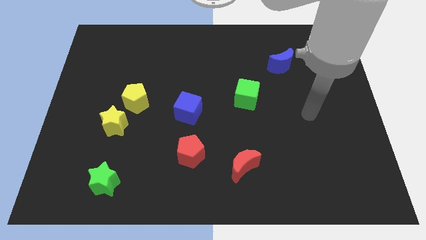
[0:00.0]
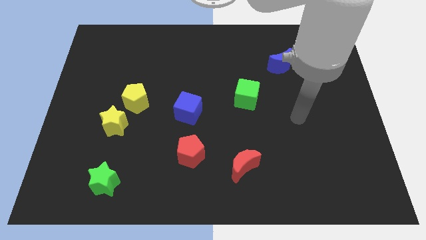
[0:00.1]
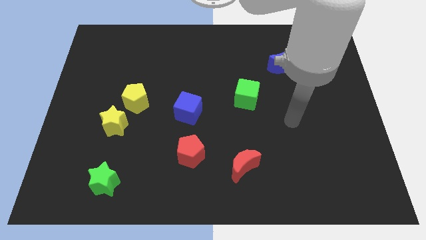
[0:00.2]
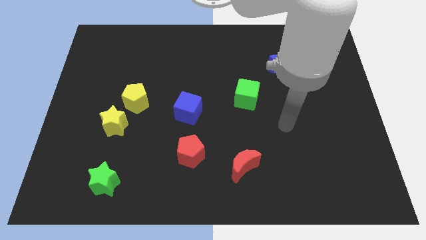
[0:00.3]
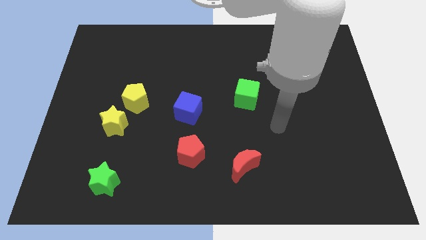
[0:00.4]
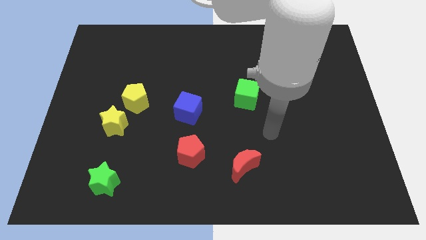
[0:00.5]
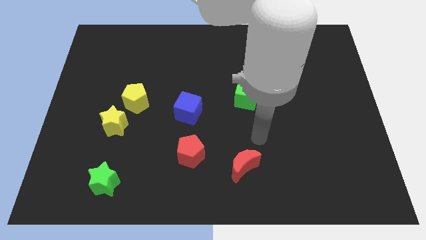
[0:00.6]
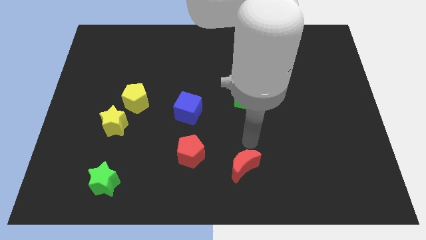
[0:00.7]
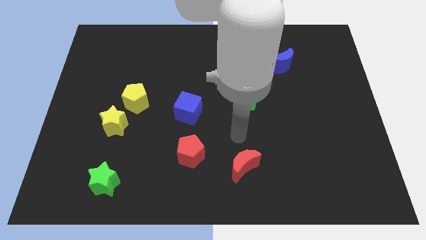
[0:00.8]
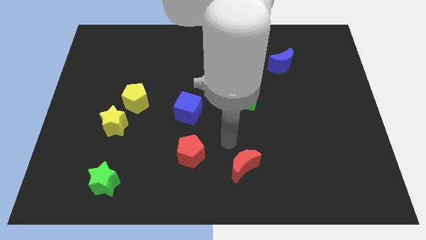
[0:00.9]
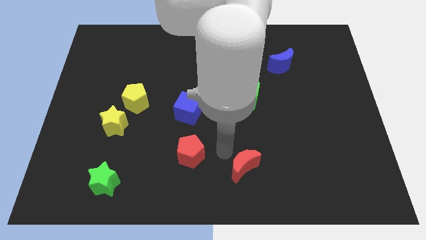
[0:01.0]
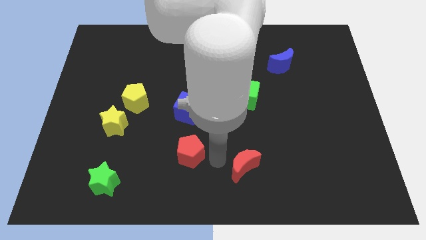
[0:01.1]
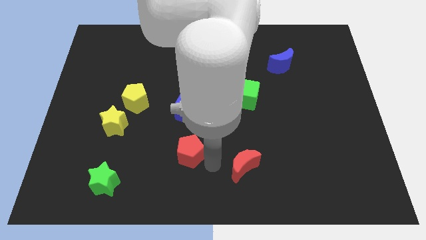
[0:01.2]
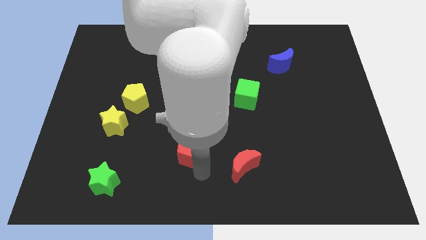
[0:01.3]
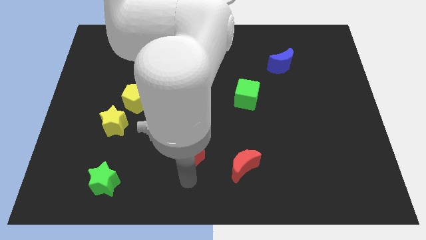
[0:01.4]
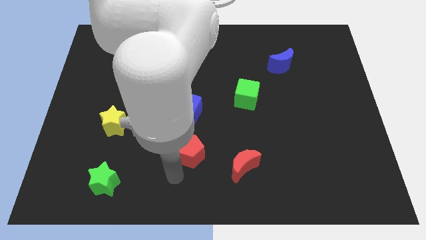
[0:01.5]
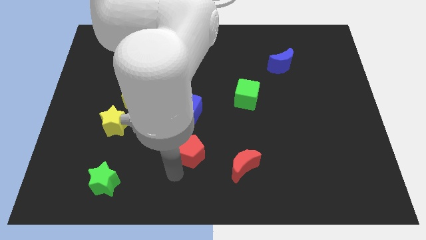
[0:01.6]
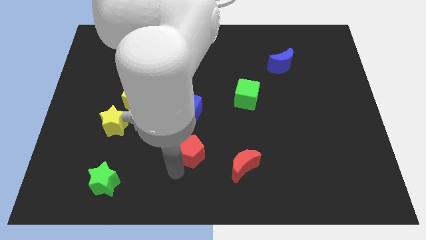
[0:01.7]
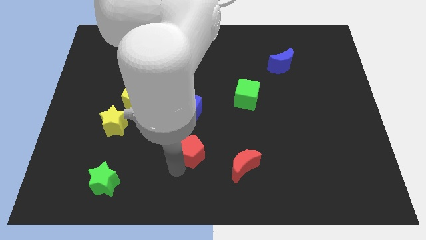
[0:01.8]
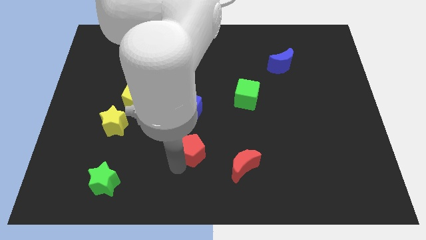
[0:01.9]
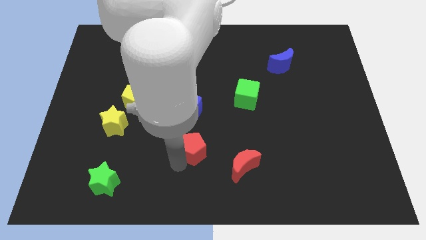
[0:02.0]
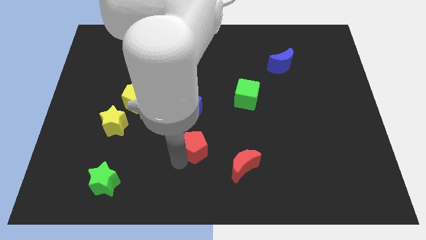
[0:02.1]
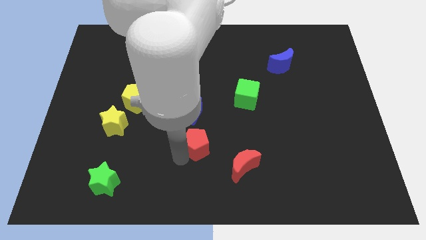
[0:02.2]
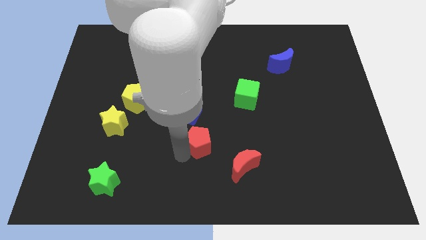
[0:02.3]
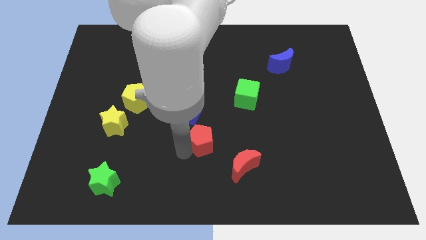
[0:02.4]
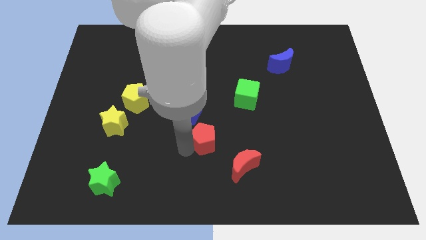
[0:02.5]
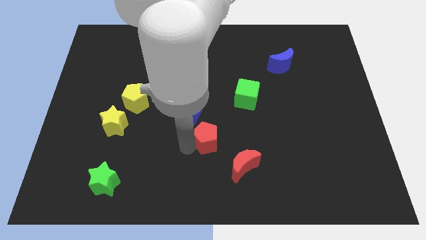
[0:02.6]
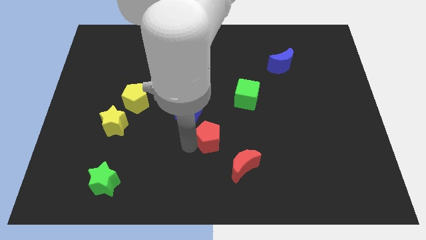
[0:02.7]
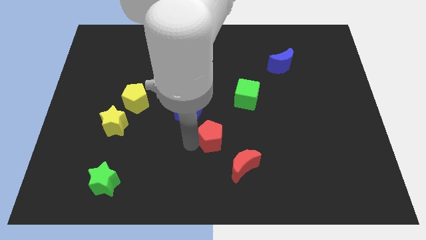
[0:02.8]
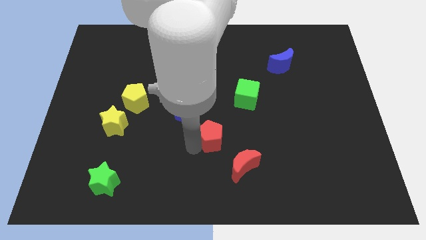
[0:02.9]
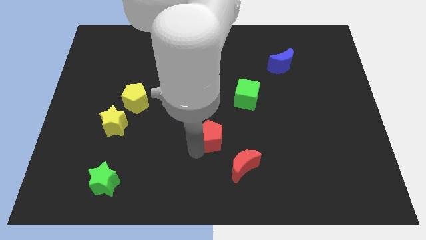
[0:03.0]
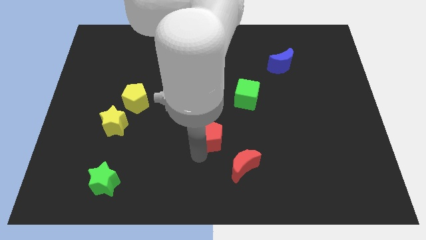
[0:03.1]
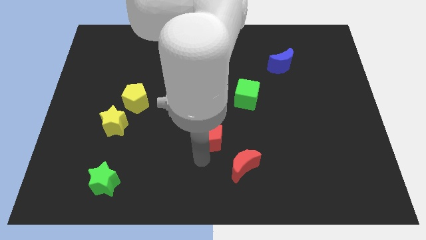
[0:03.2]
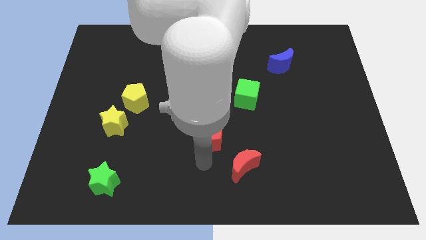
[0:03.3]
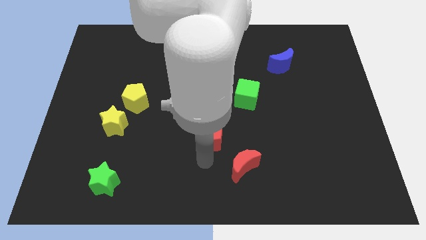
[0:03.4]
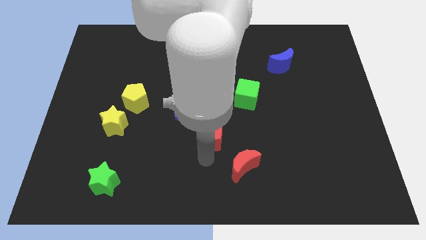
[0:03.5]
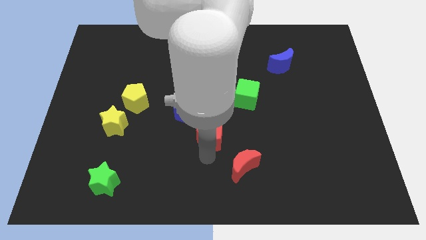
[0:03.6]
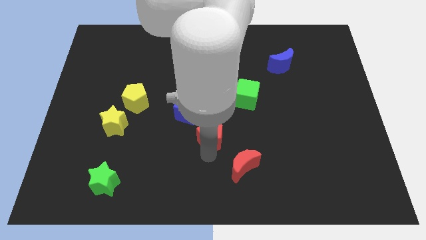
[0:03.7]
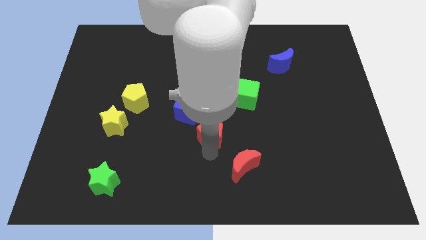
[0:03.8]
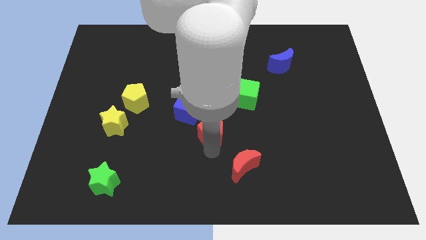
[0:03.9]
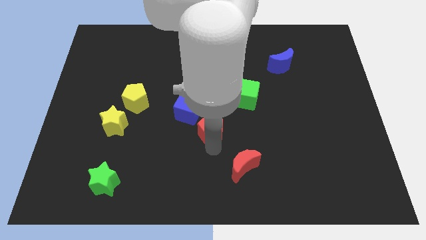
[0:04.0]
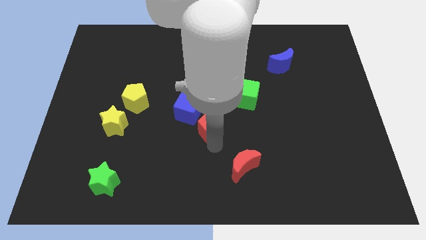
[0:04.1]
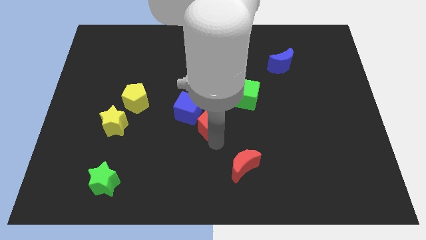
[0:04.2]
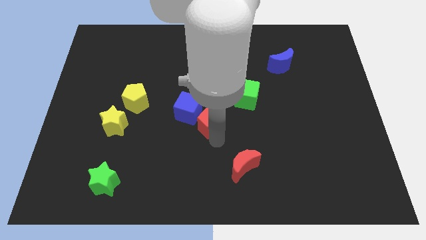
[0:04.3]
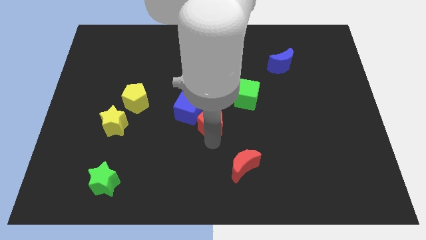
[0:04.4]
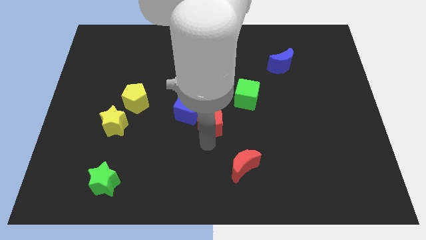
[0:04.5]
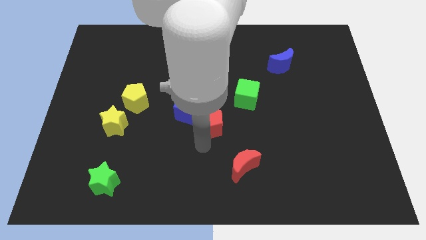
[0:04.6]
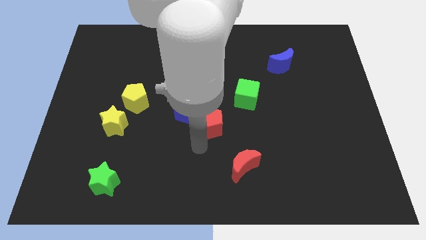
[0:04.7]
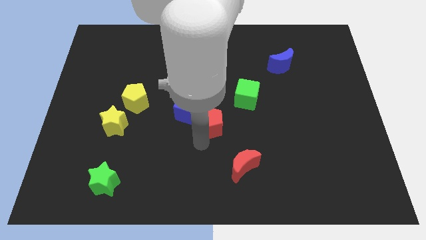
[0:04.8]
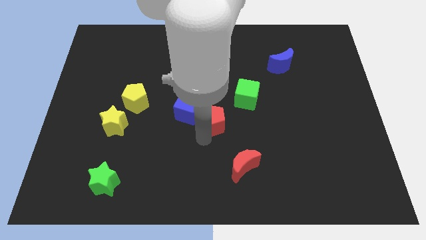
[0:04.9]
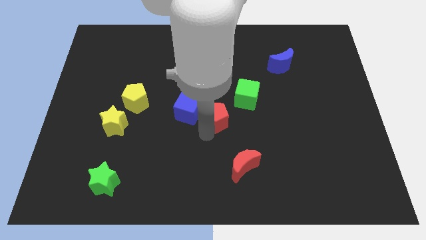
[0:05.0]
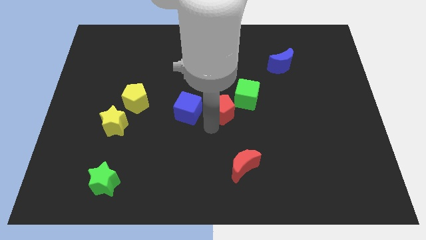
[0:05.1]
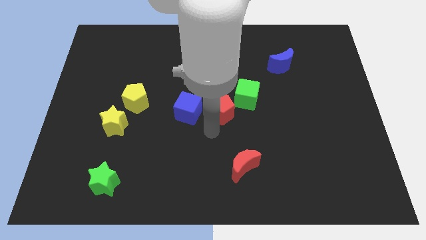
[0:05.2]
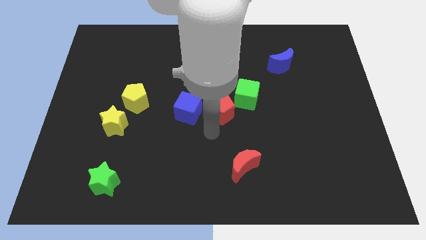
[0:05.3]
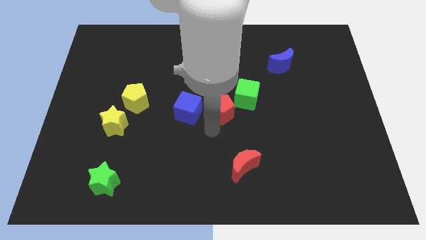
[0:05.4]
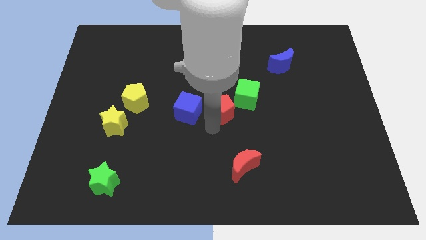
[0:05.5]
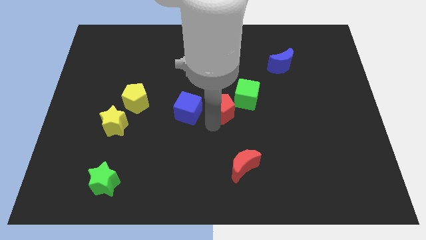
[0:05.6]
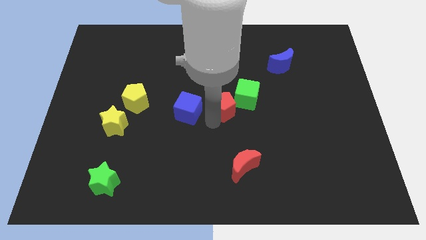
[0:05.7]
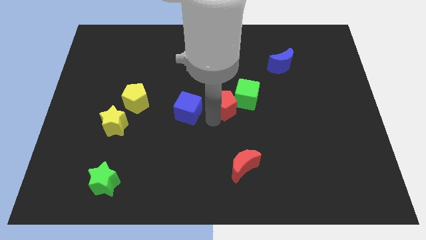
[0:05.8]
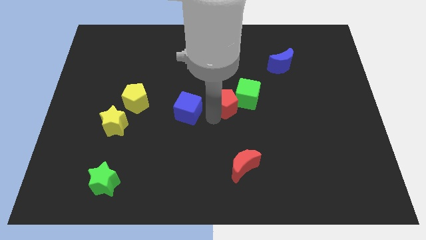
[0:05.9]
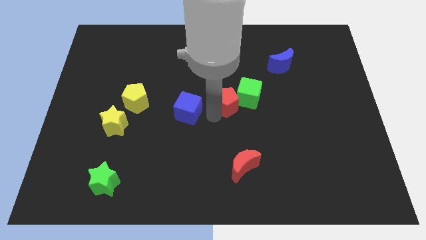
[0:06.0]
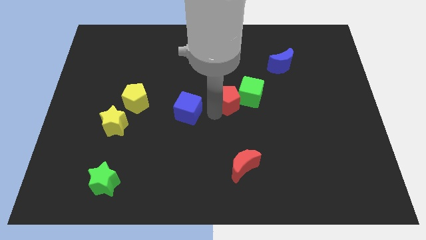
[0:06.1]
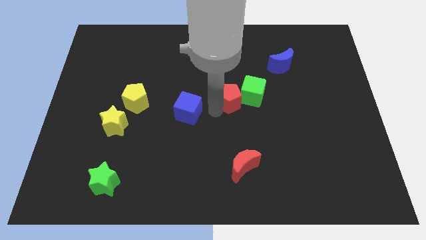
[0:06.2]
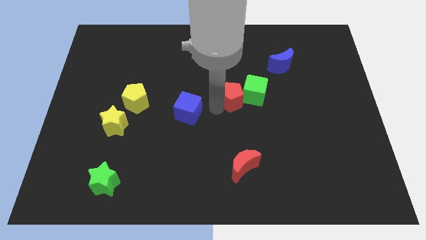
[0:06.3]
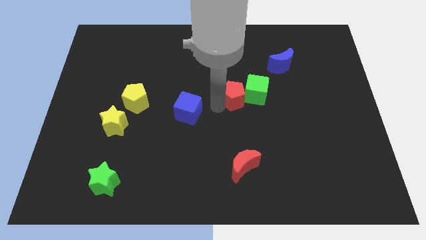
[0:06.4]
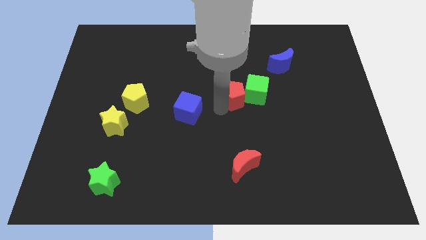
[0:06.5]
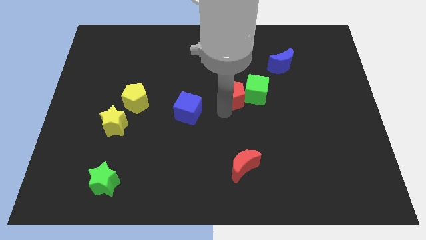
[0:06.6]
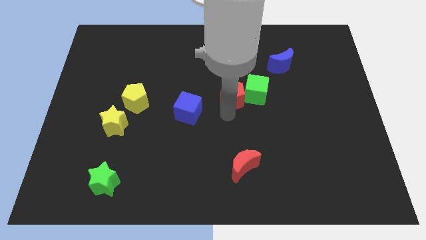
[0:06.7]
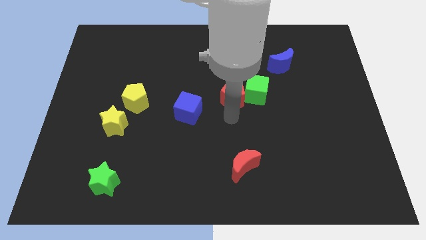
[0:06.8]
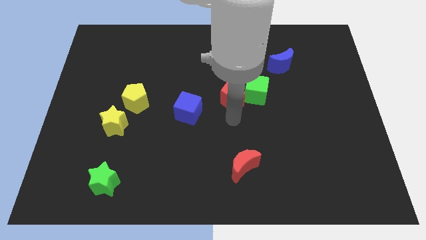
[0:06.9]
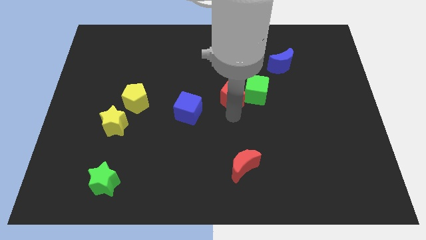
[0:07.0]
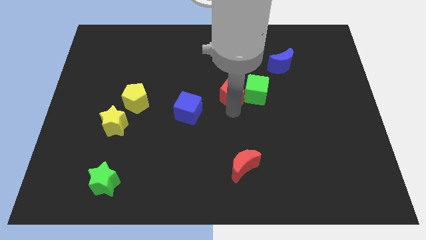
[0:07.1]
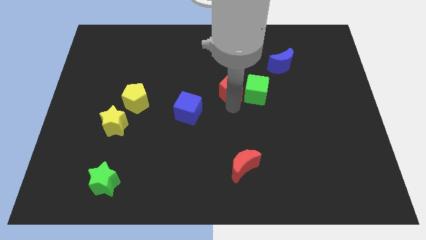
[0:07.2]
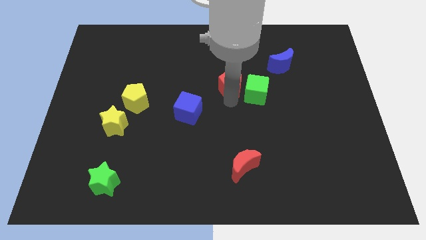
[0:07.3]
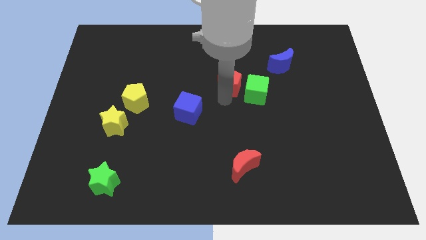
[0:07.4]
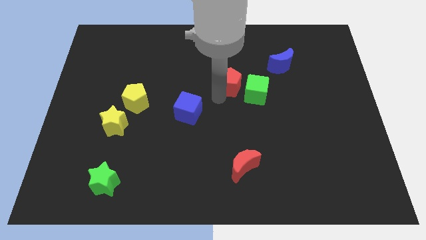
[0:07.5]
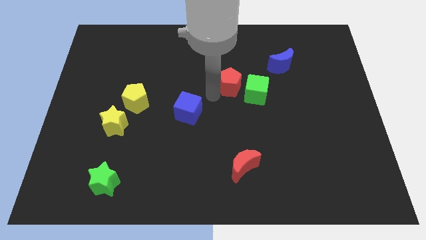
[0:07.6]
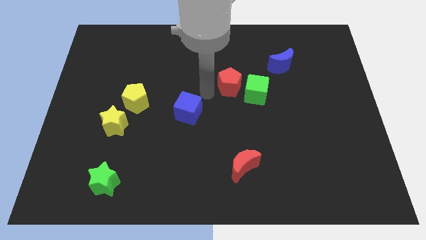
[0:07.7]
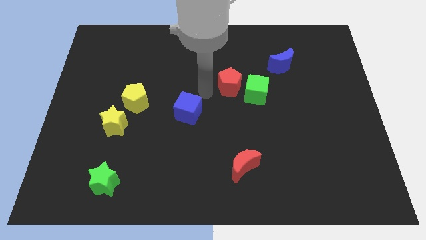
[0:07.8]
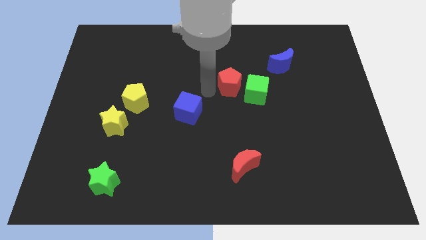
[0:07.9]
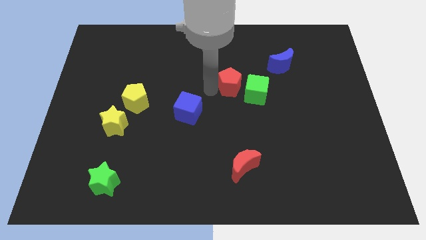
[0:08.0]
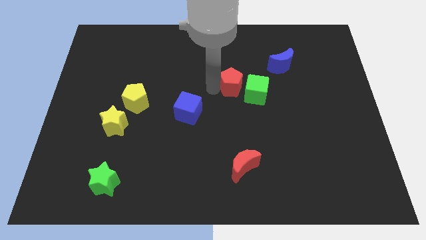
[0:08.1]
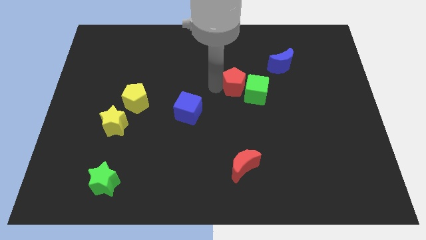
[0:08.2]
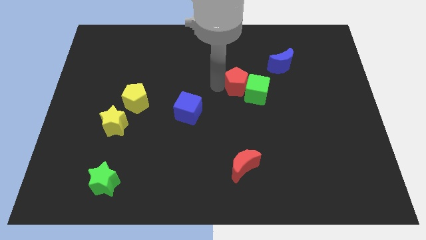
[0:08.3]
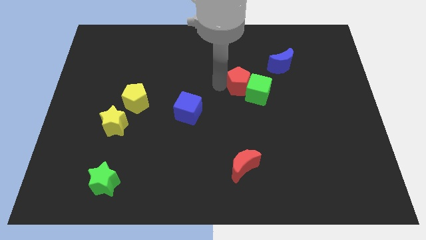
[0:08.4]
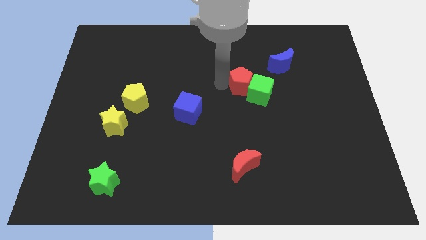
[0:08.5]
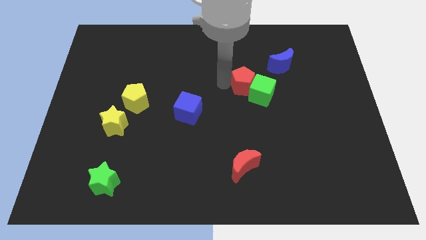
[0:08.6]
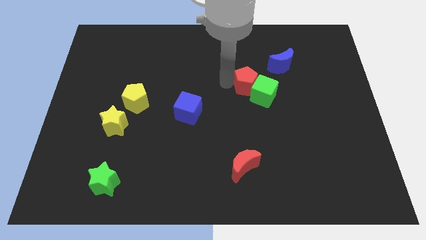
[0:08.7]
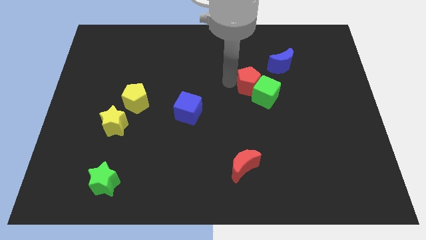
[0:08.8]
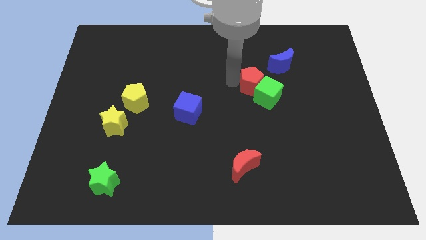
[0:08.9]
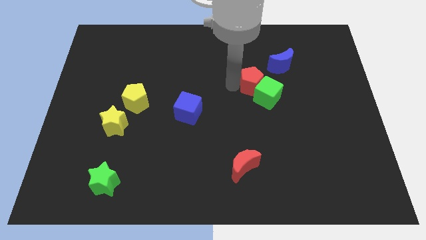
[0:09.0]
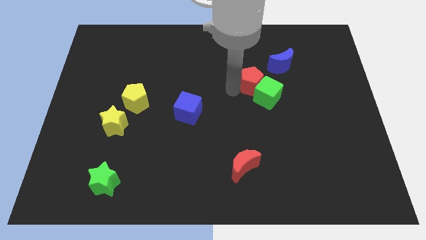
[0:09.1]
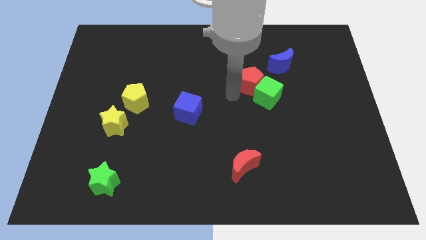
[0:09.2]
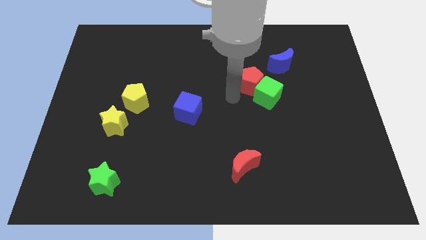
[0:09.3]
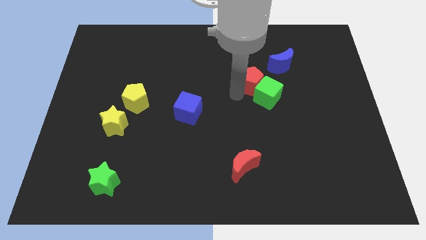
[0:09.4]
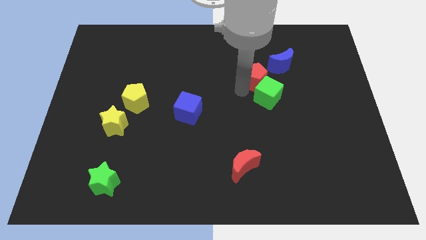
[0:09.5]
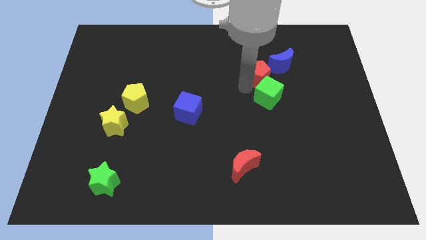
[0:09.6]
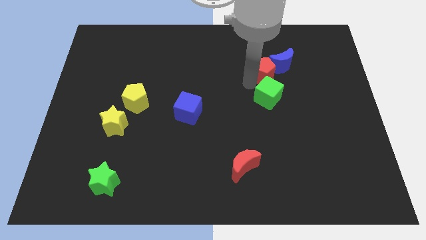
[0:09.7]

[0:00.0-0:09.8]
move the red pentagon towards the blue moon
